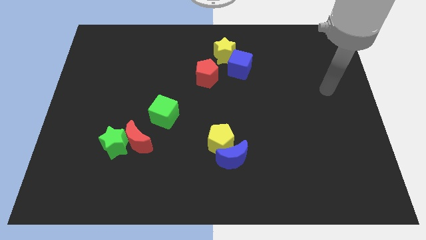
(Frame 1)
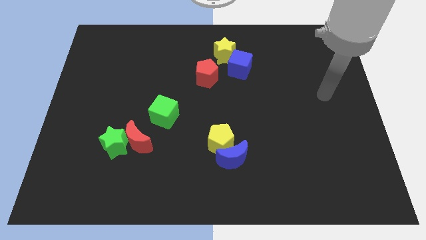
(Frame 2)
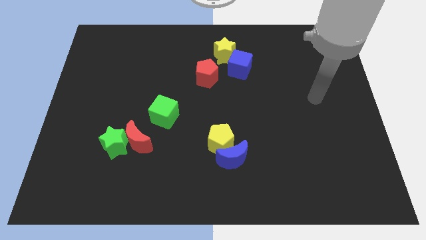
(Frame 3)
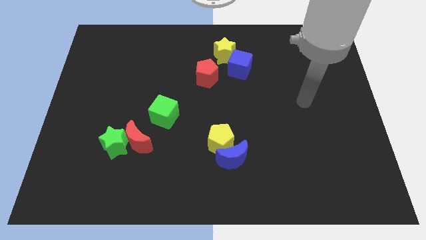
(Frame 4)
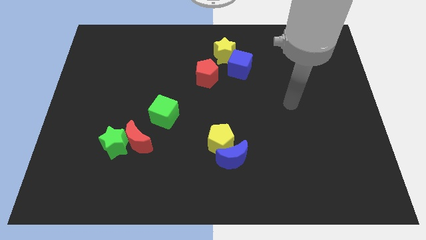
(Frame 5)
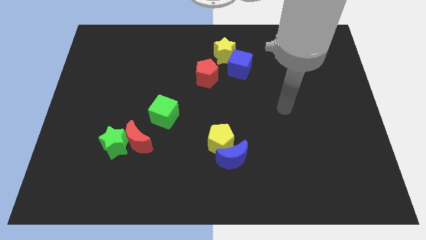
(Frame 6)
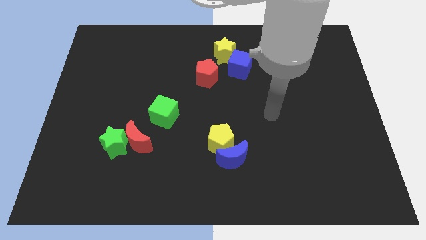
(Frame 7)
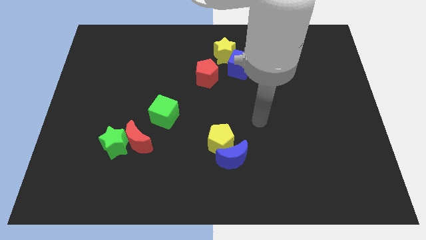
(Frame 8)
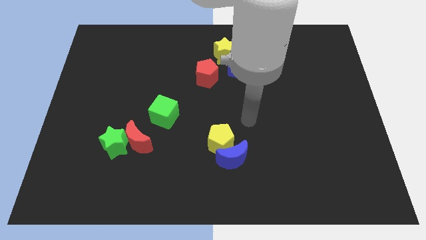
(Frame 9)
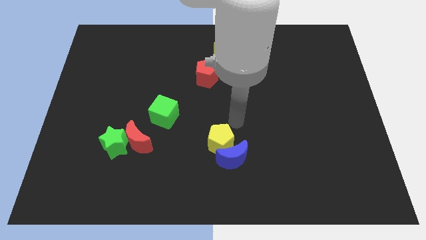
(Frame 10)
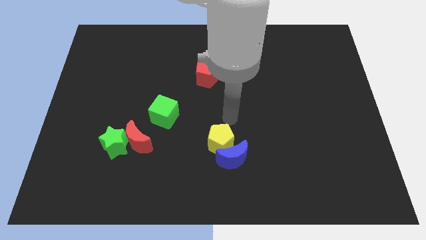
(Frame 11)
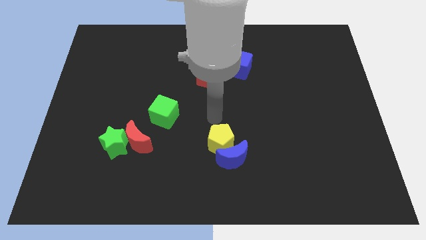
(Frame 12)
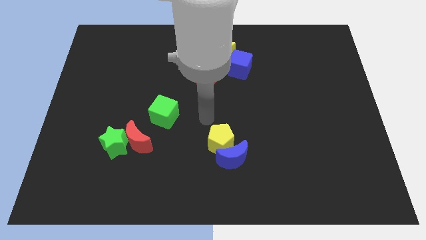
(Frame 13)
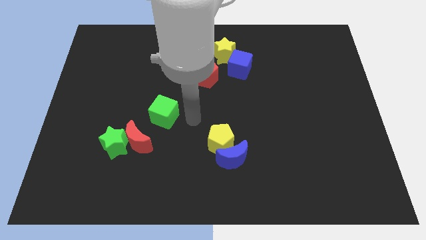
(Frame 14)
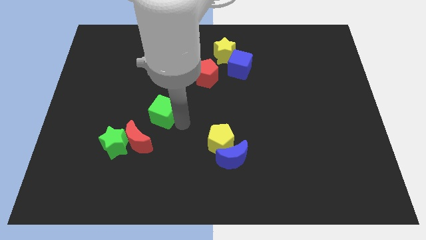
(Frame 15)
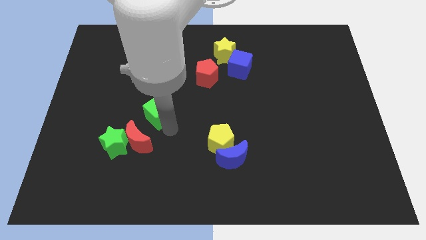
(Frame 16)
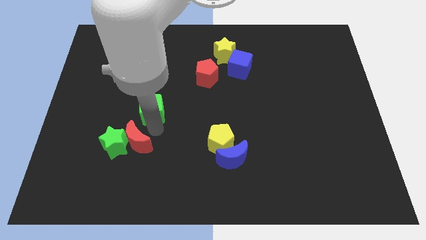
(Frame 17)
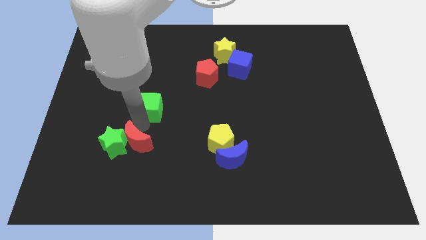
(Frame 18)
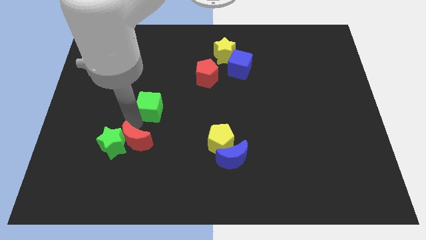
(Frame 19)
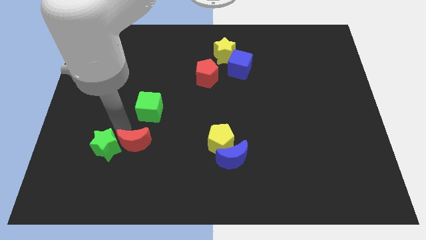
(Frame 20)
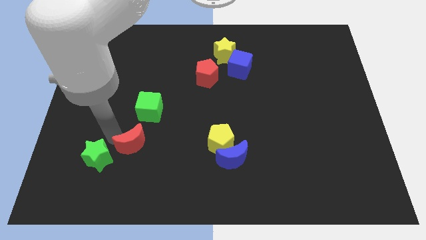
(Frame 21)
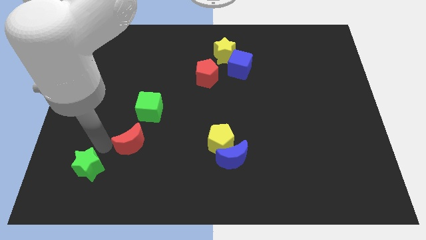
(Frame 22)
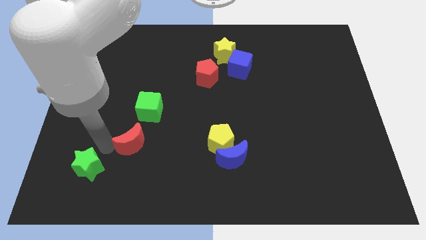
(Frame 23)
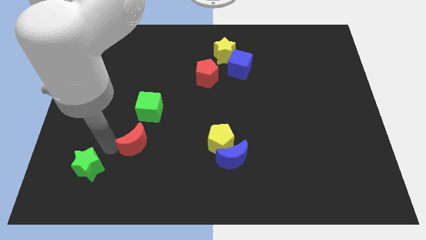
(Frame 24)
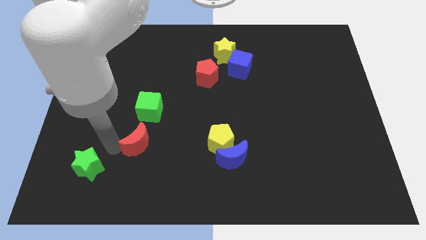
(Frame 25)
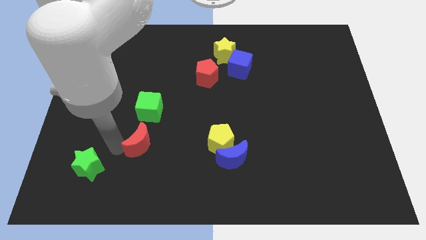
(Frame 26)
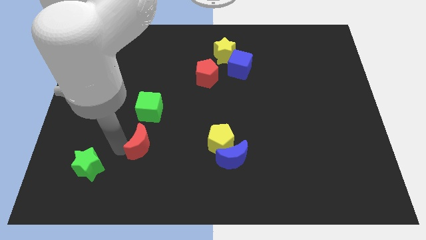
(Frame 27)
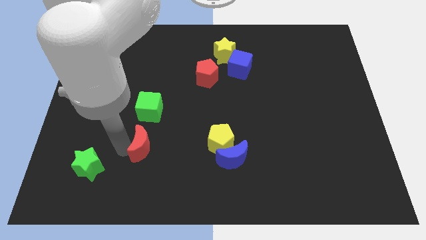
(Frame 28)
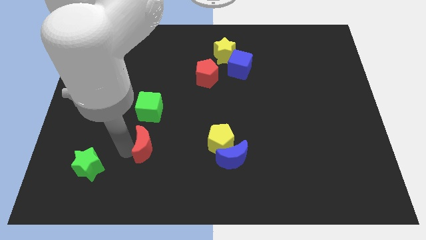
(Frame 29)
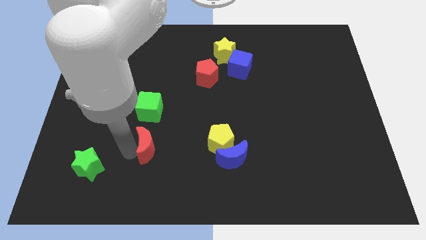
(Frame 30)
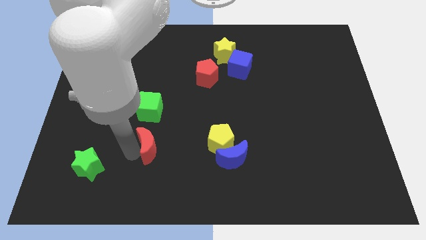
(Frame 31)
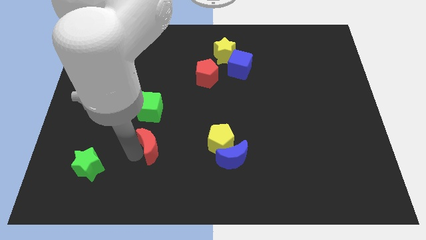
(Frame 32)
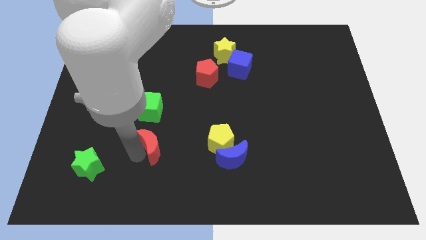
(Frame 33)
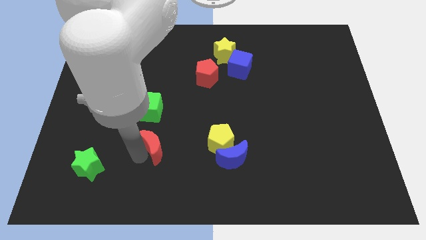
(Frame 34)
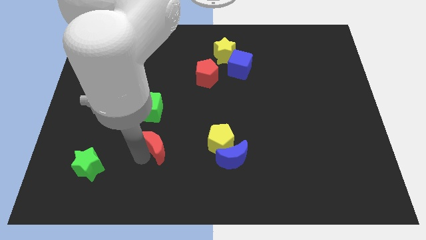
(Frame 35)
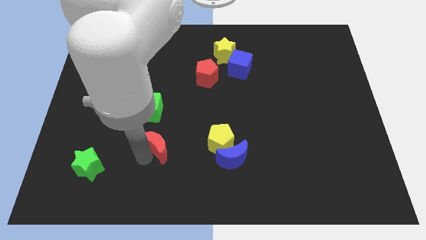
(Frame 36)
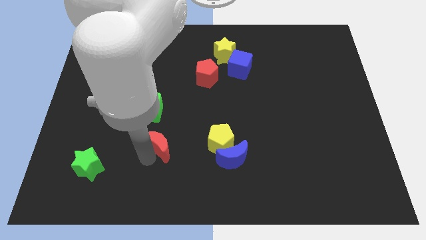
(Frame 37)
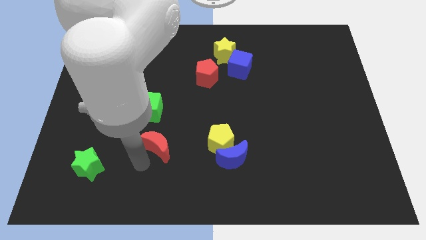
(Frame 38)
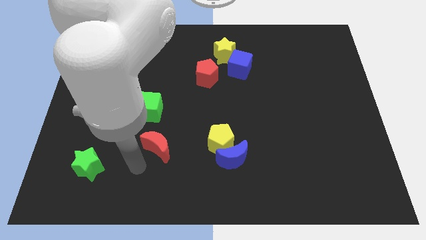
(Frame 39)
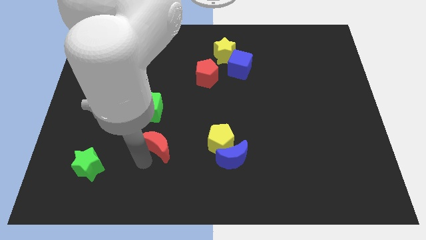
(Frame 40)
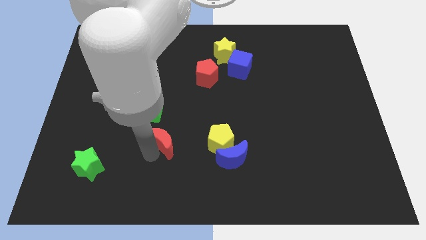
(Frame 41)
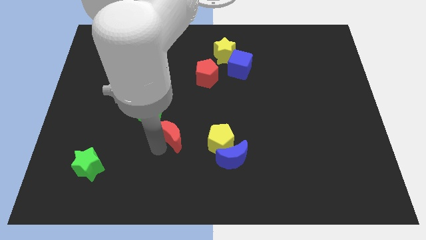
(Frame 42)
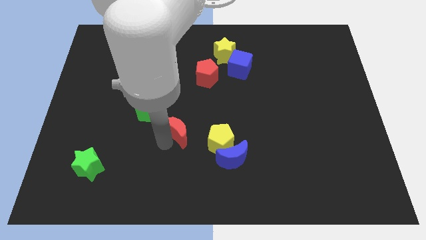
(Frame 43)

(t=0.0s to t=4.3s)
slightly push the red moon up and to the right diagonally

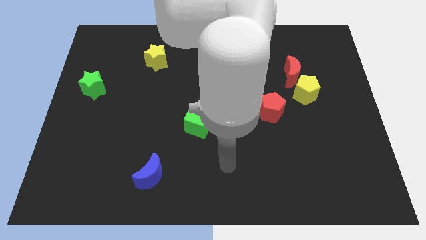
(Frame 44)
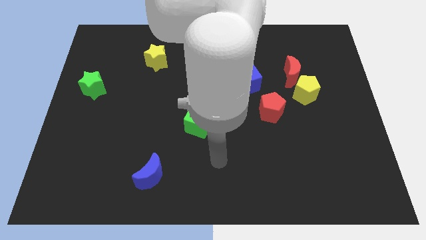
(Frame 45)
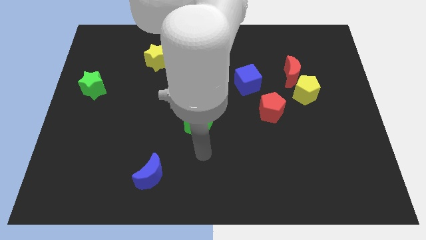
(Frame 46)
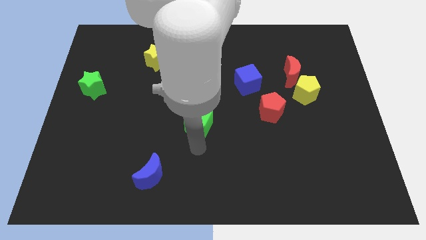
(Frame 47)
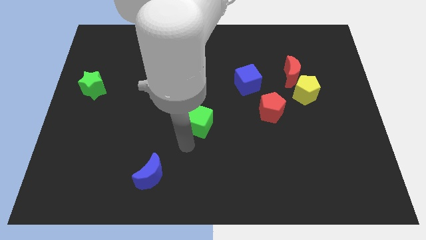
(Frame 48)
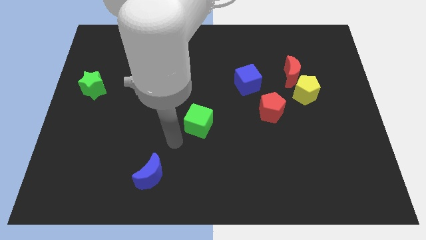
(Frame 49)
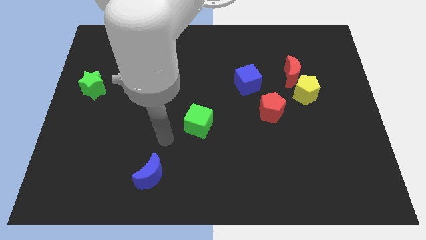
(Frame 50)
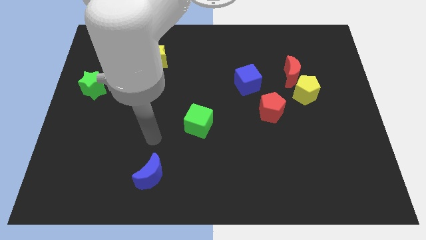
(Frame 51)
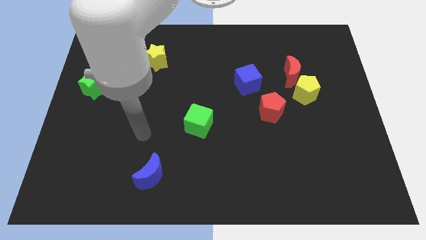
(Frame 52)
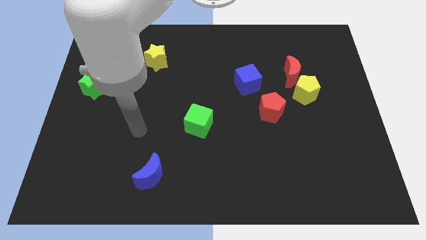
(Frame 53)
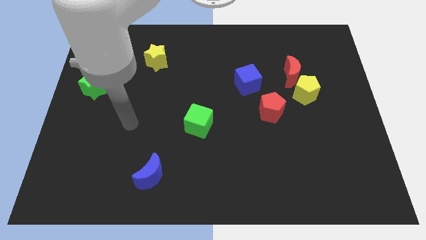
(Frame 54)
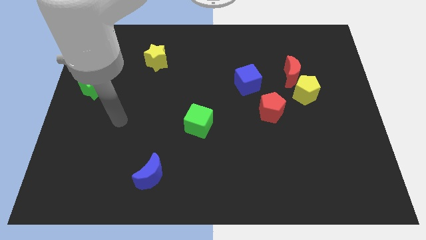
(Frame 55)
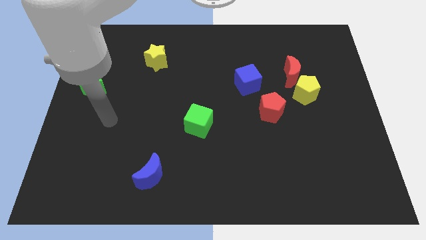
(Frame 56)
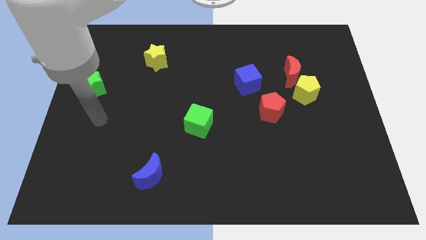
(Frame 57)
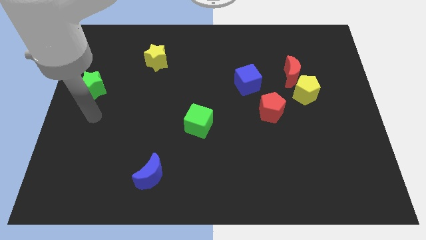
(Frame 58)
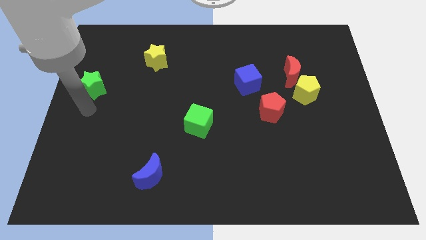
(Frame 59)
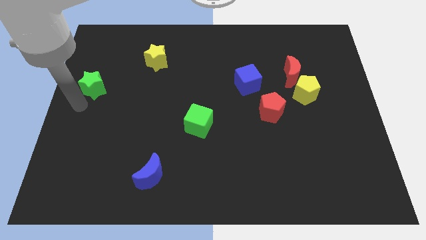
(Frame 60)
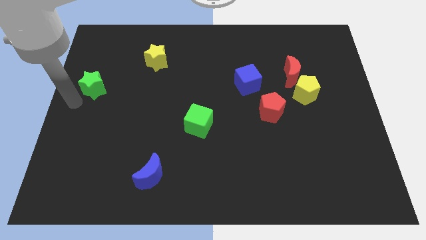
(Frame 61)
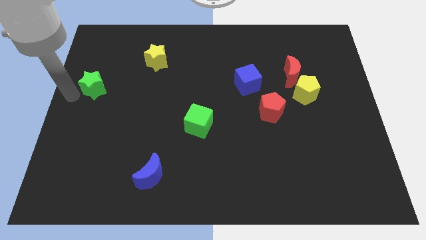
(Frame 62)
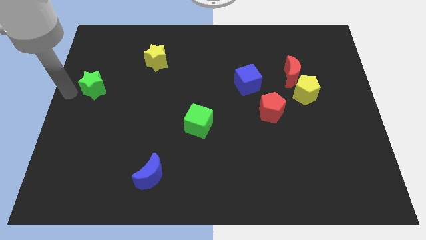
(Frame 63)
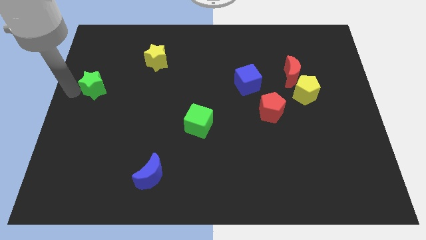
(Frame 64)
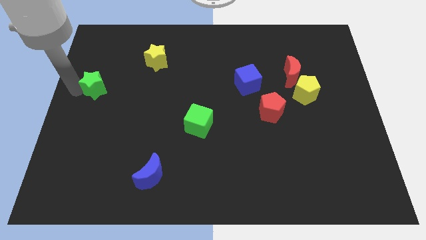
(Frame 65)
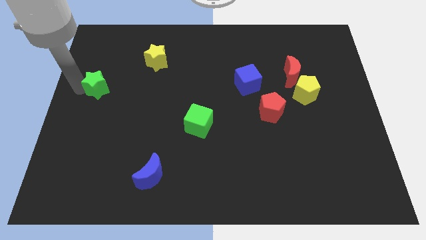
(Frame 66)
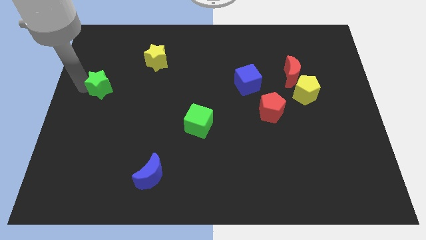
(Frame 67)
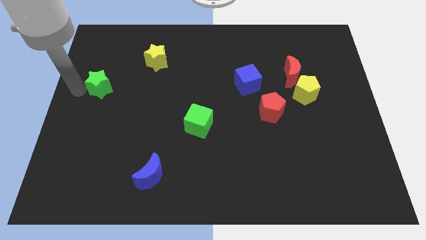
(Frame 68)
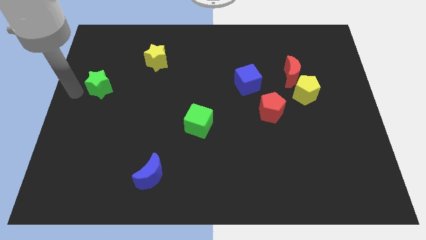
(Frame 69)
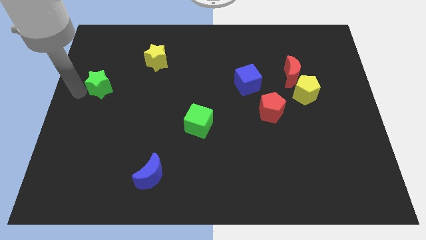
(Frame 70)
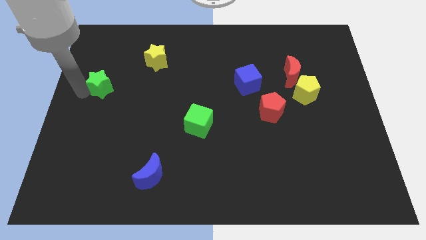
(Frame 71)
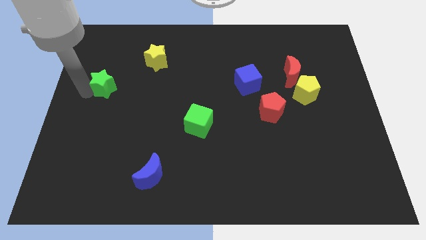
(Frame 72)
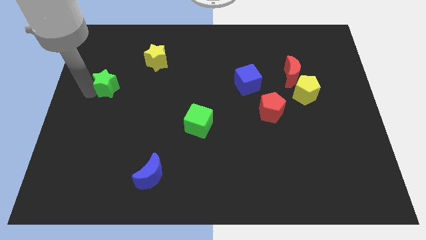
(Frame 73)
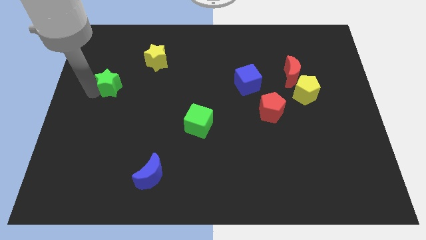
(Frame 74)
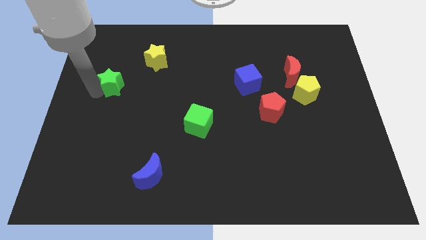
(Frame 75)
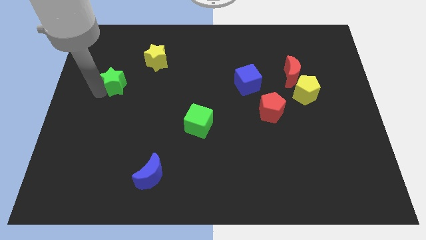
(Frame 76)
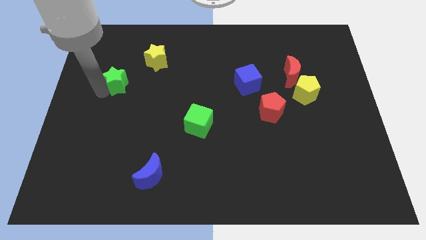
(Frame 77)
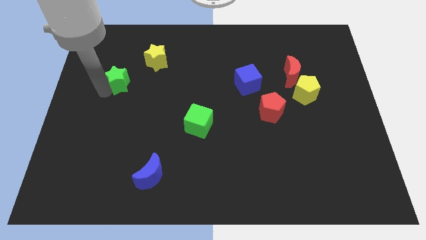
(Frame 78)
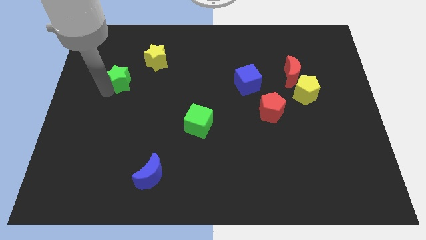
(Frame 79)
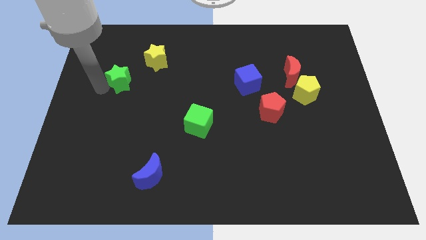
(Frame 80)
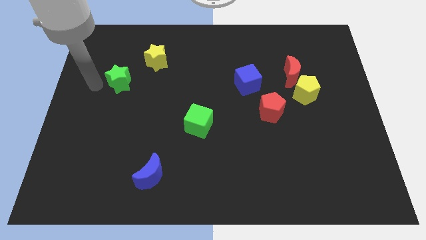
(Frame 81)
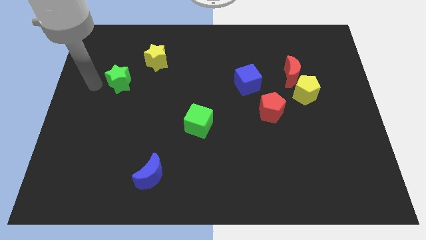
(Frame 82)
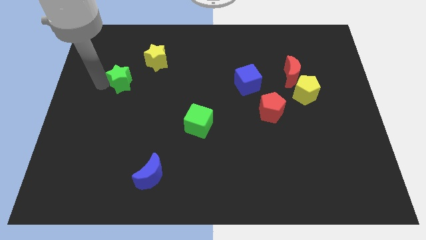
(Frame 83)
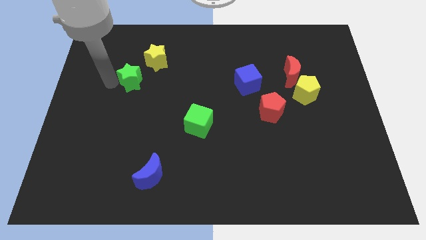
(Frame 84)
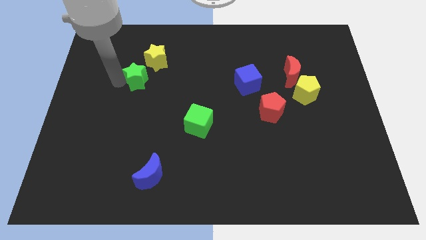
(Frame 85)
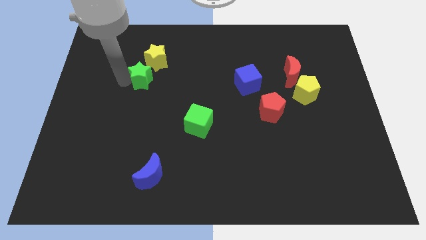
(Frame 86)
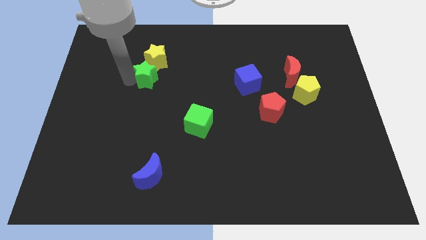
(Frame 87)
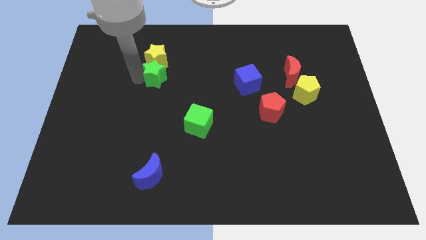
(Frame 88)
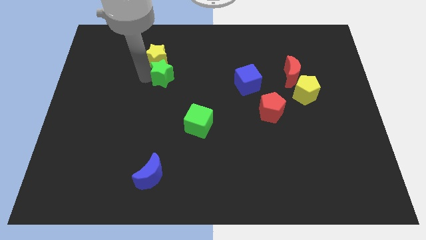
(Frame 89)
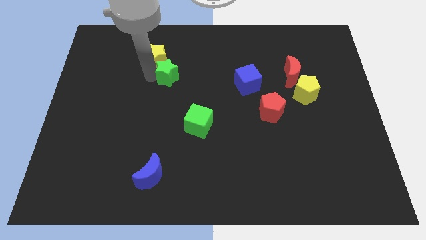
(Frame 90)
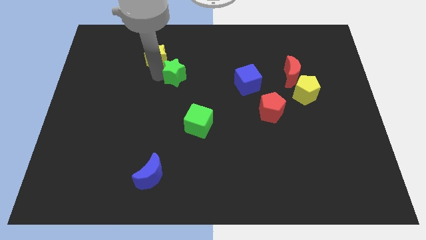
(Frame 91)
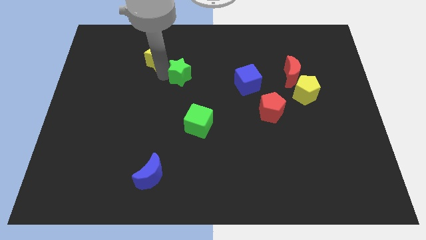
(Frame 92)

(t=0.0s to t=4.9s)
move the green star right
